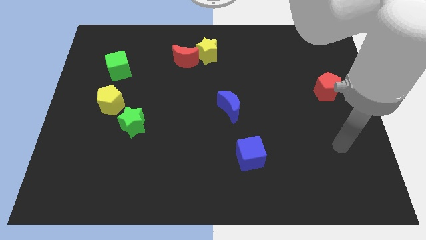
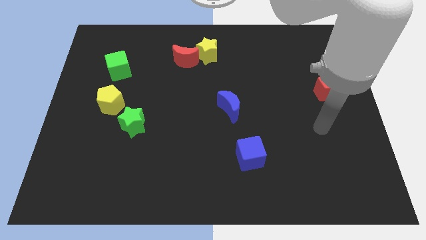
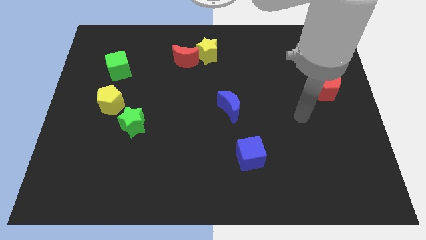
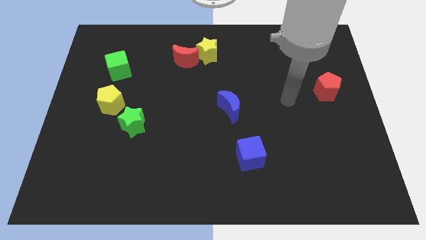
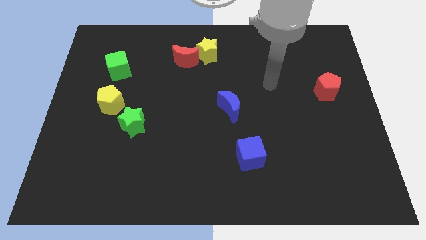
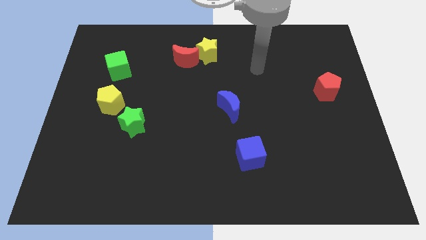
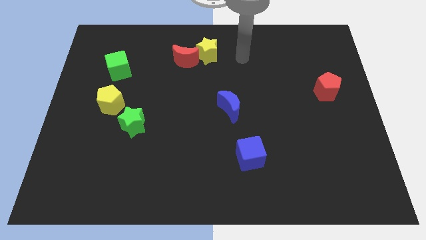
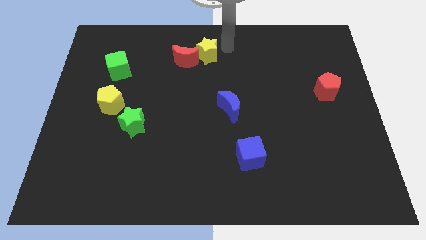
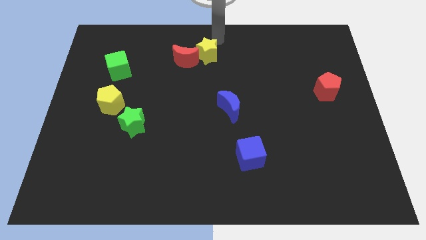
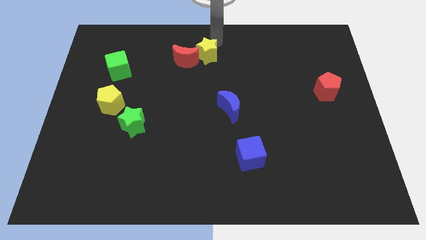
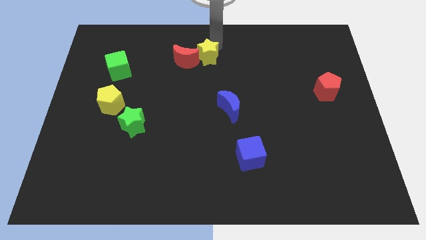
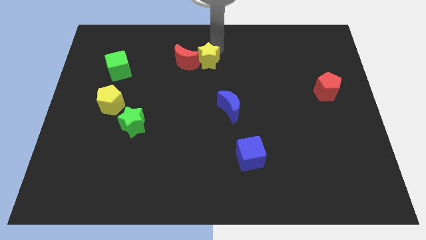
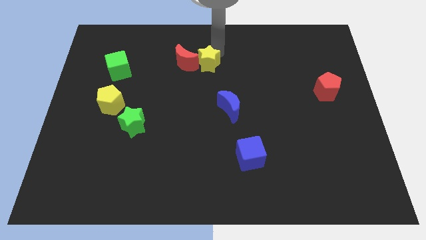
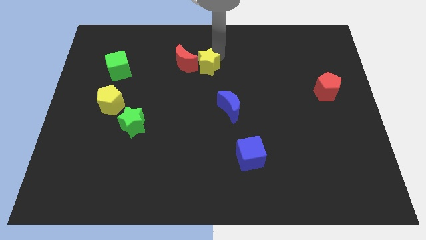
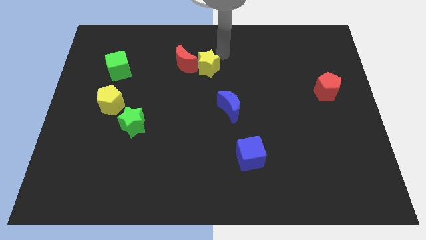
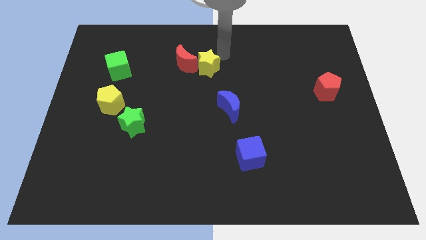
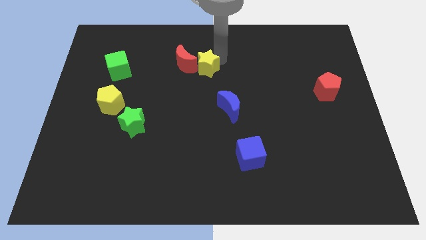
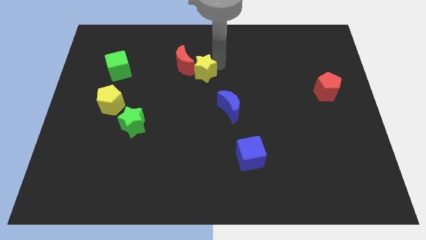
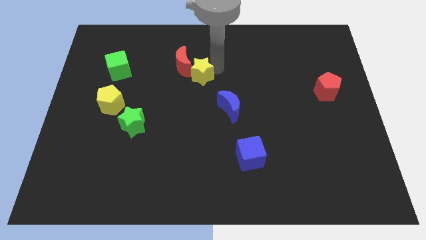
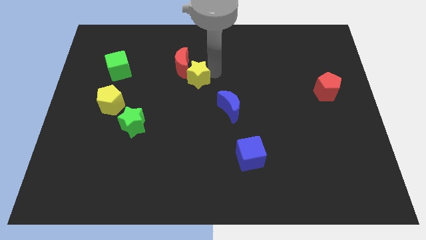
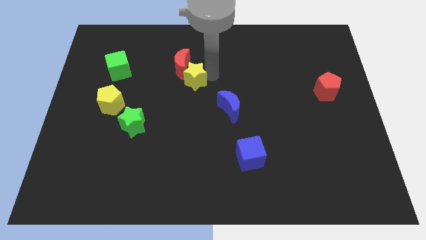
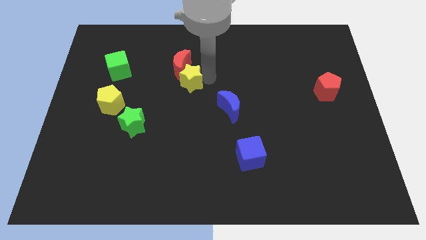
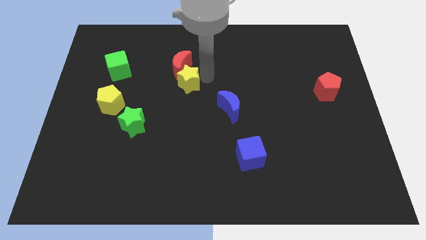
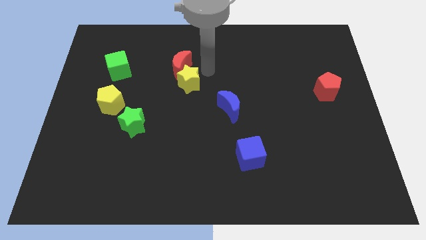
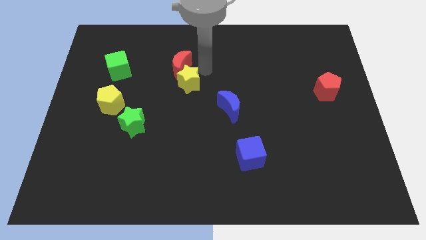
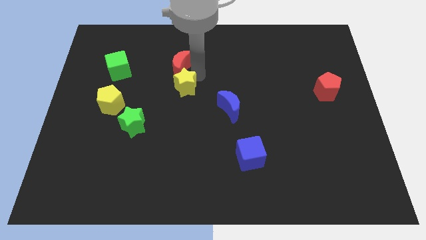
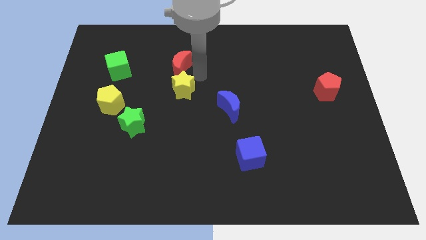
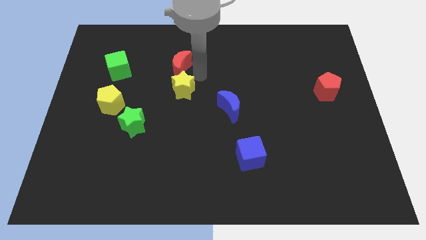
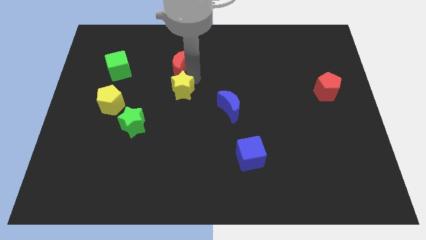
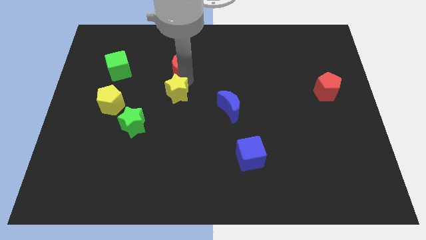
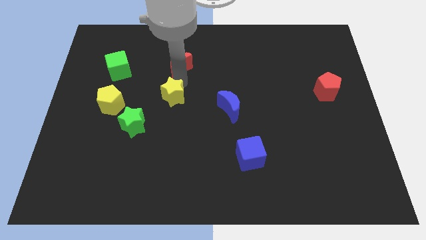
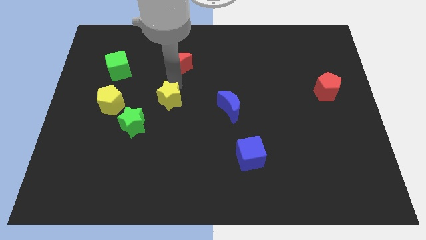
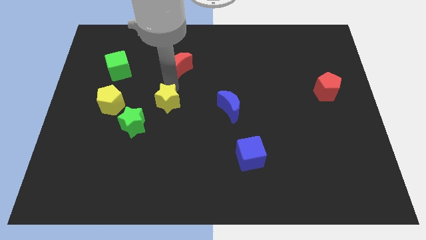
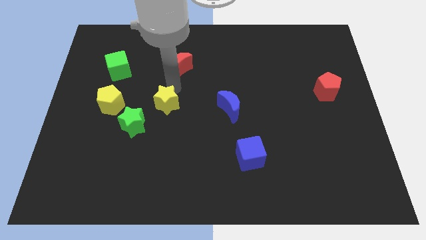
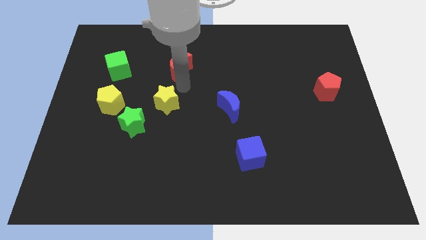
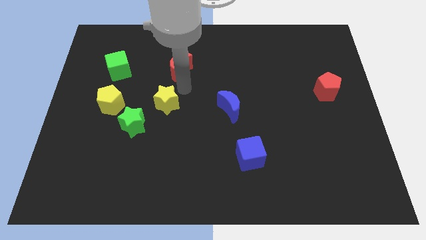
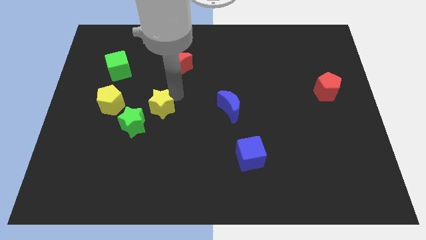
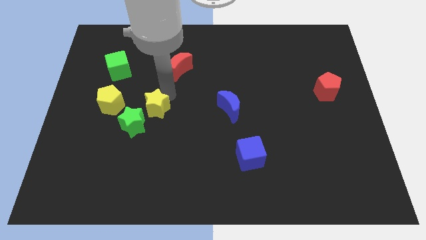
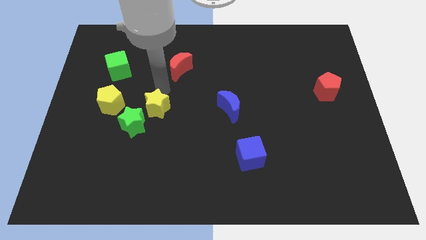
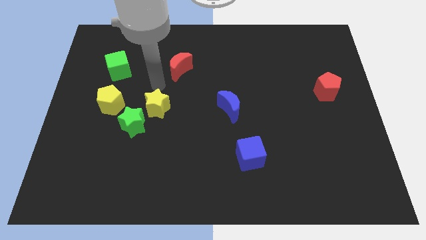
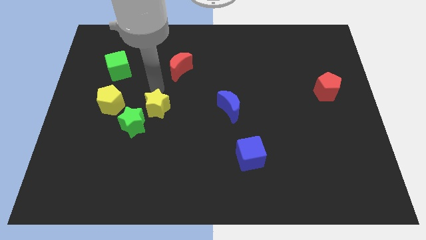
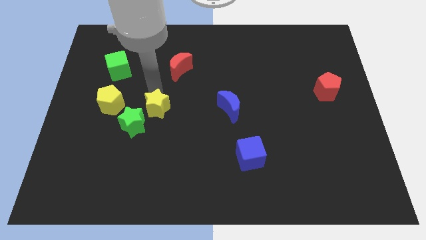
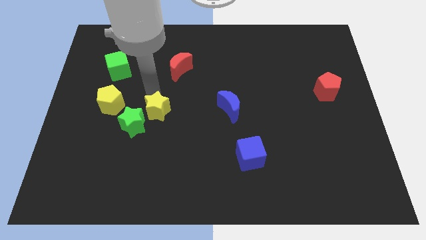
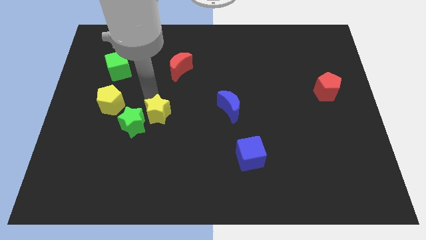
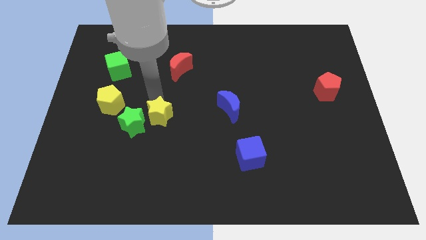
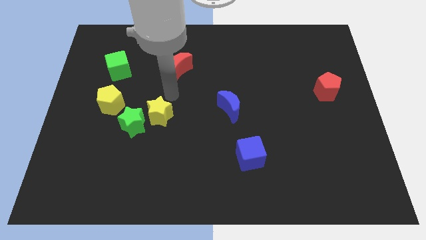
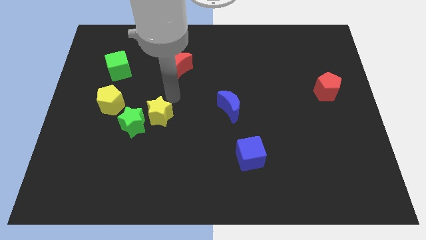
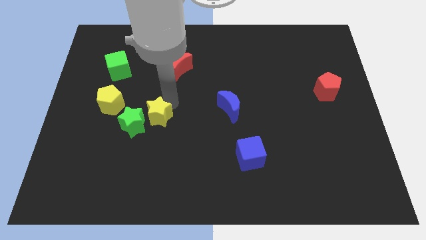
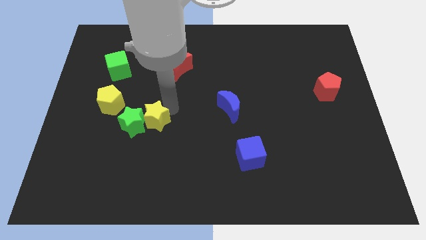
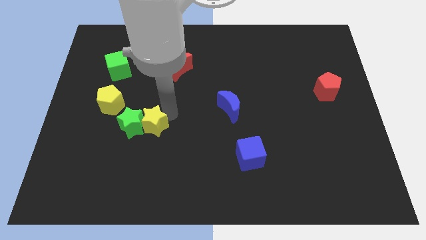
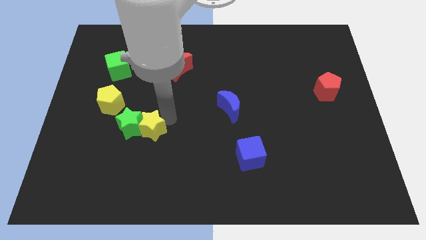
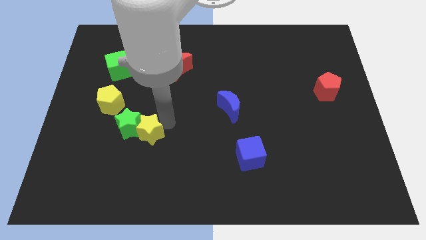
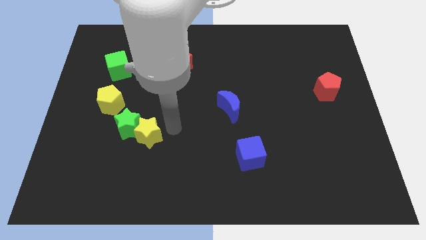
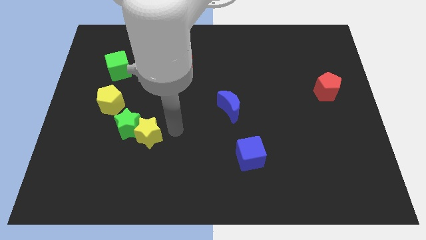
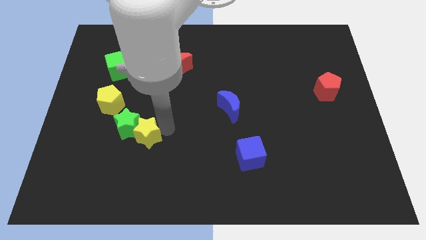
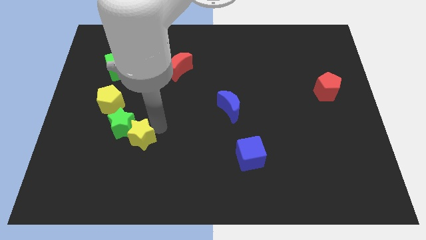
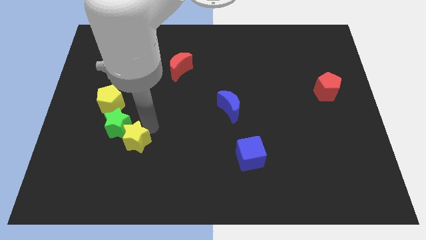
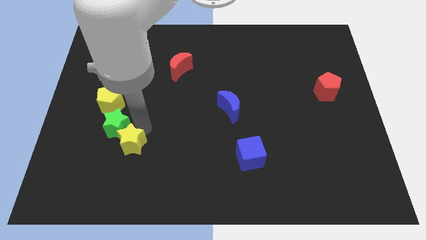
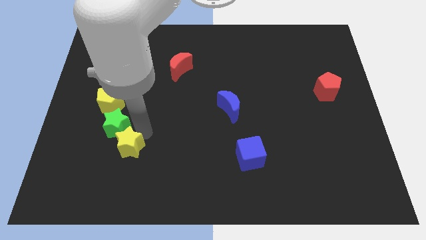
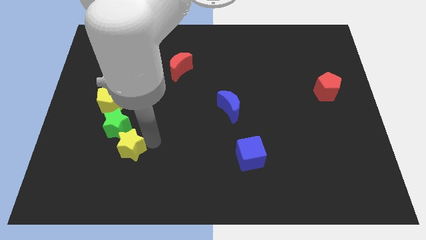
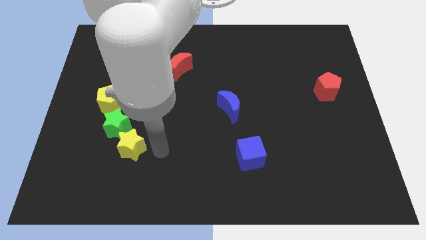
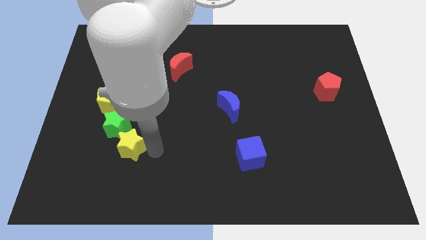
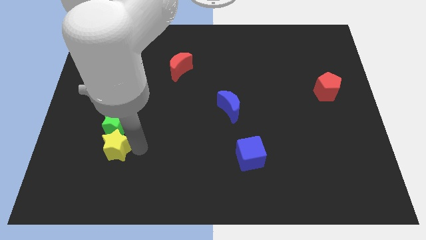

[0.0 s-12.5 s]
put the yellow star below the yellow pentagon

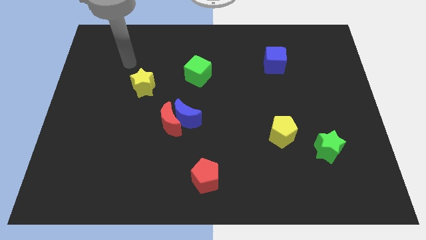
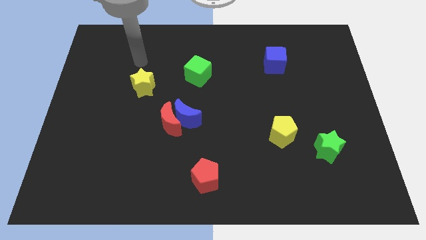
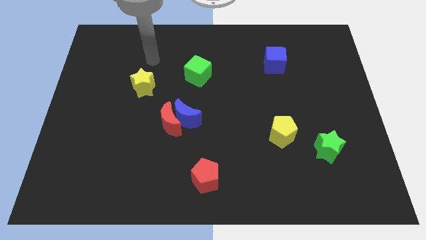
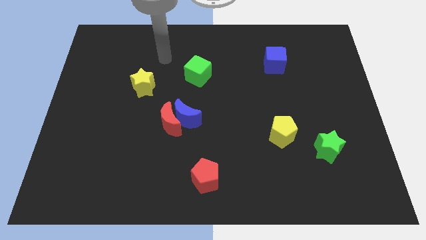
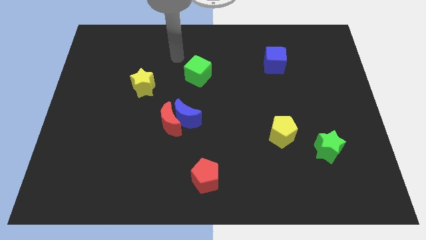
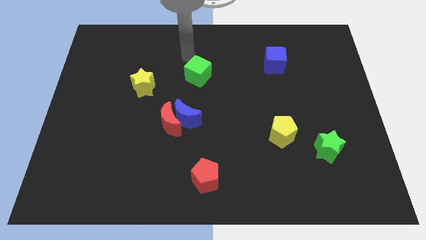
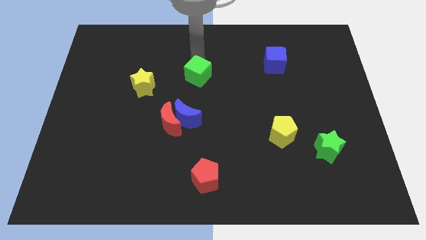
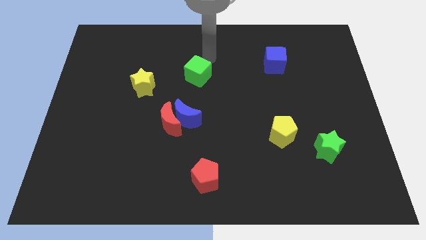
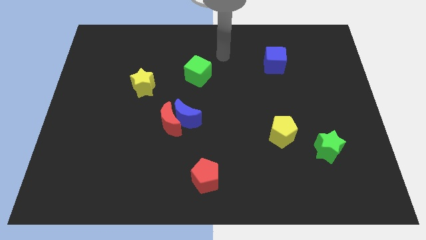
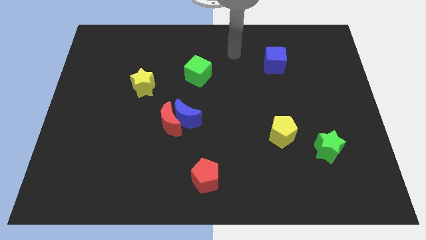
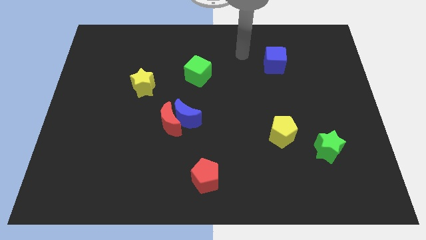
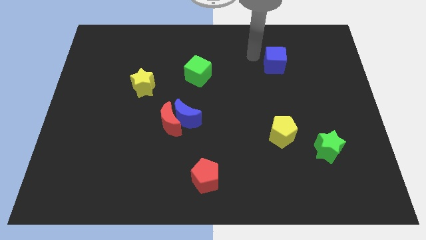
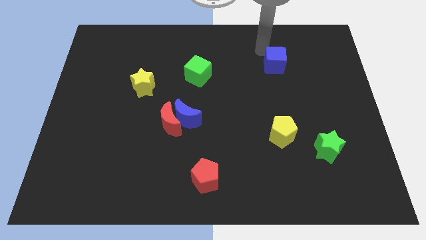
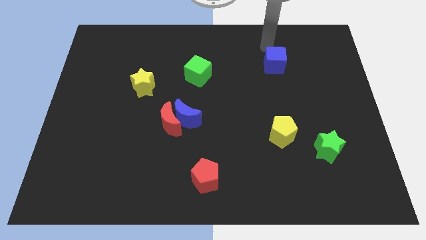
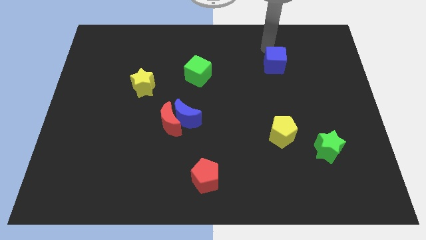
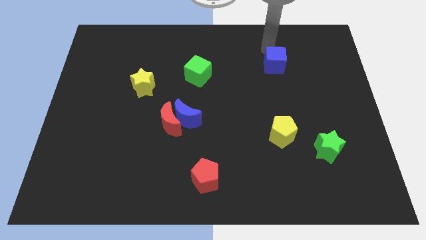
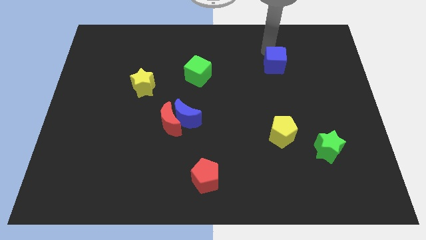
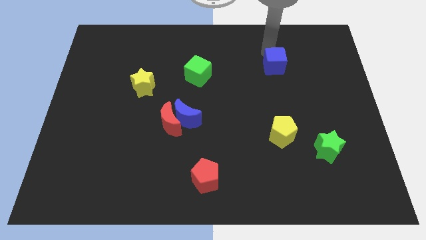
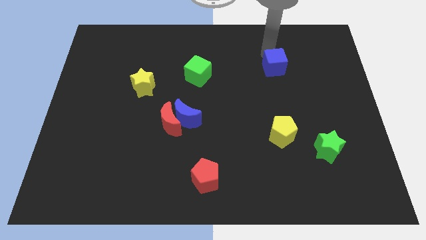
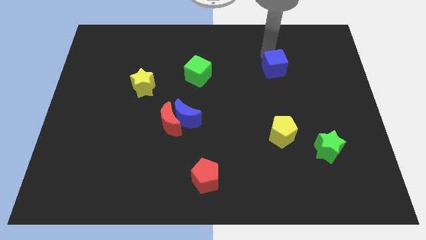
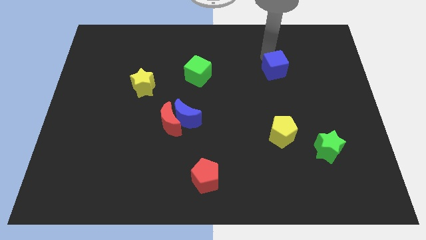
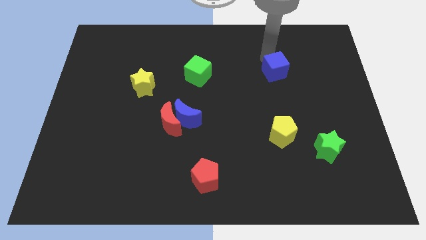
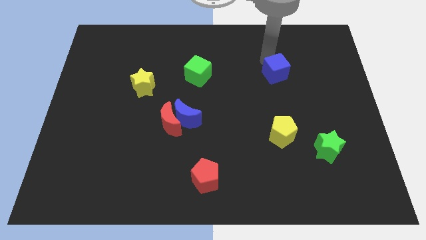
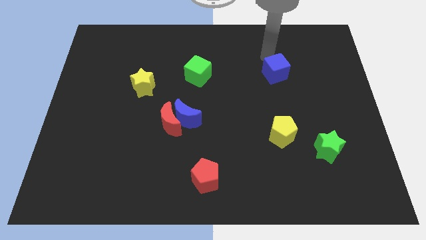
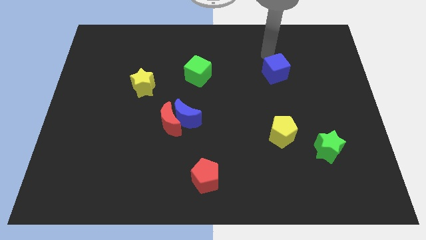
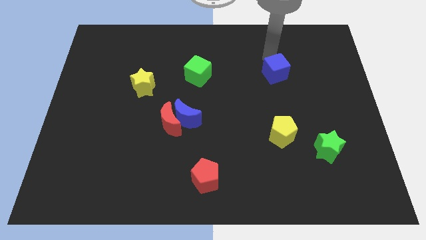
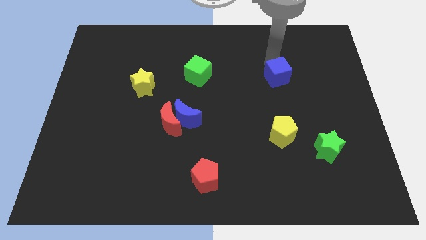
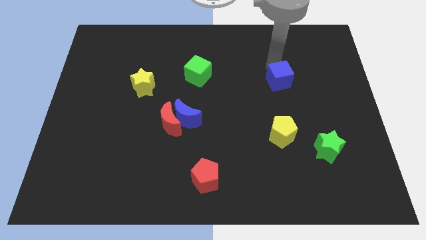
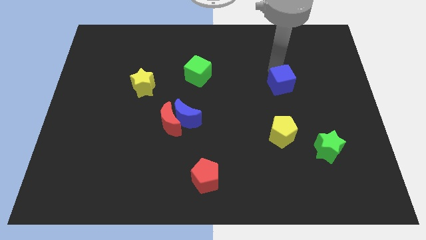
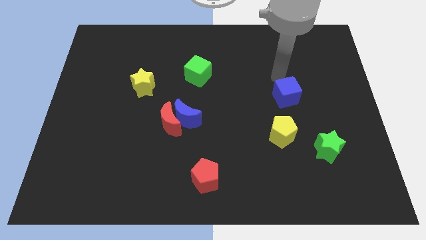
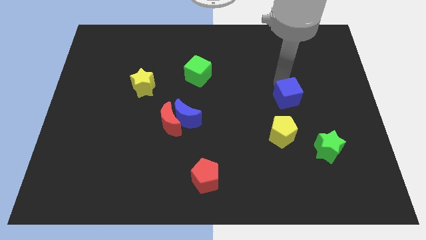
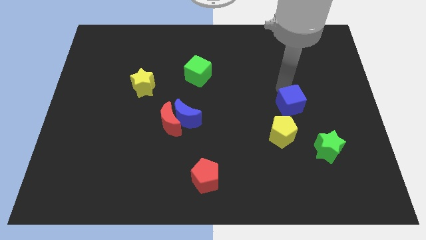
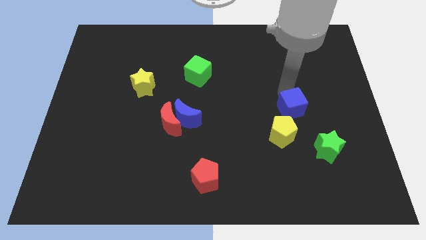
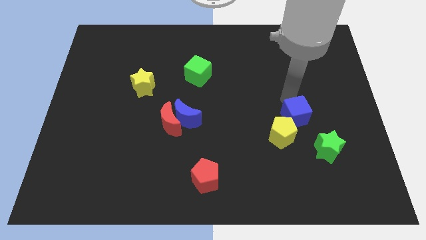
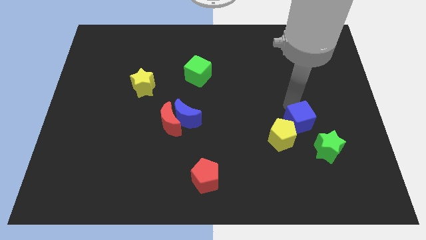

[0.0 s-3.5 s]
move the blue cube just right of the yellow pentagon
